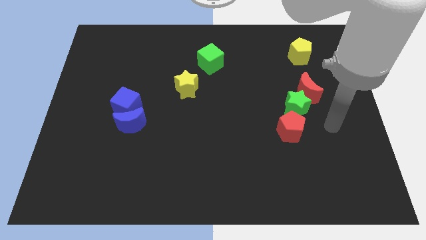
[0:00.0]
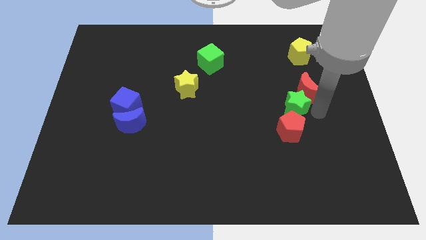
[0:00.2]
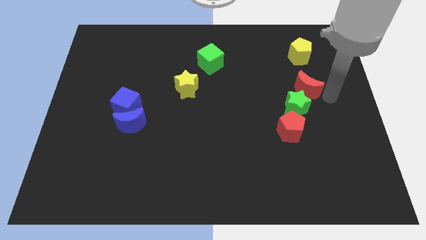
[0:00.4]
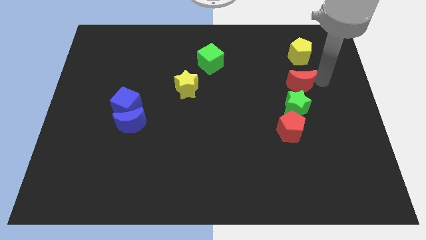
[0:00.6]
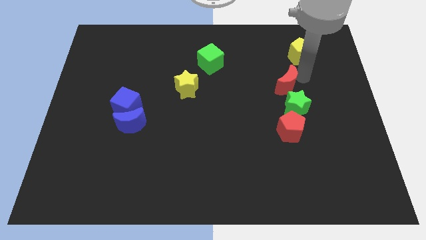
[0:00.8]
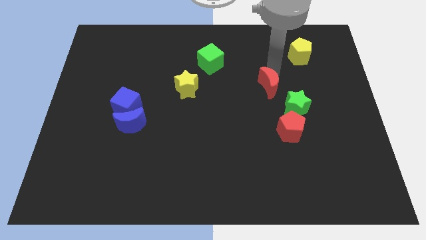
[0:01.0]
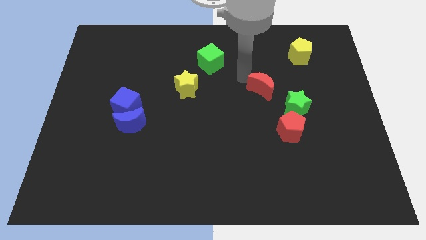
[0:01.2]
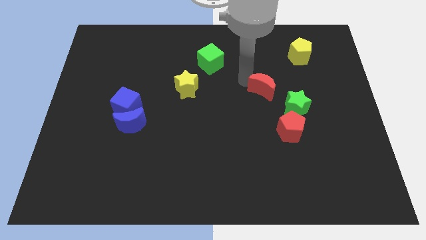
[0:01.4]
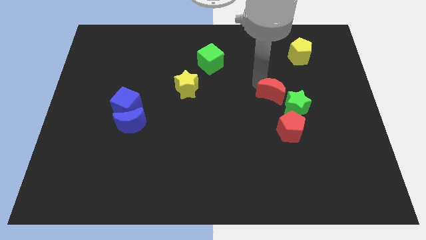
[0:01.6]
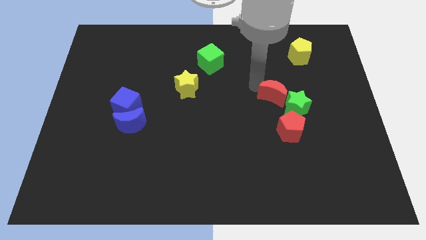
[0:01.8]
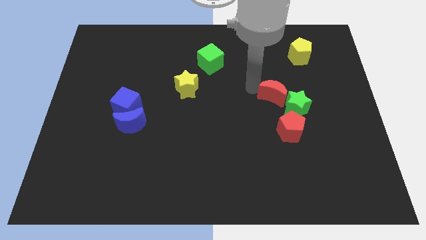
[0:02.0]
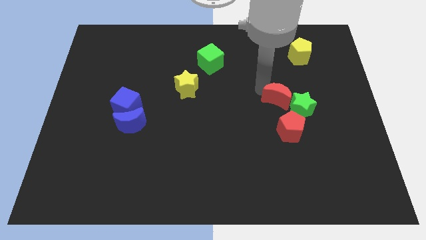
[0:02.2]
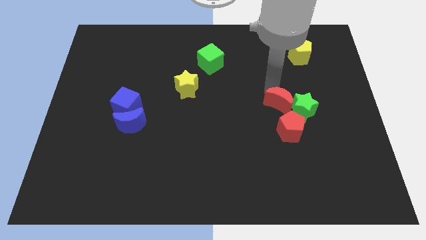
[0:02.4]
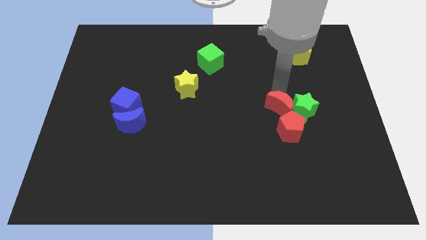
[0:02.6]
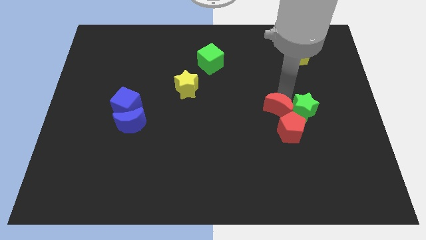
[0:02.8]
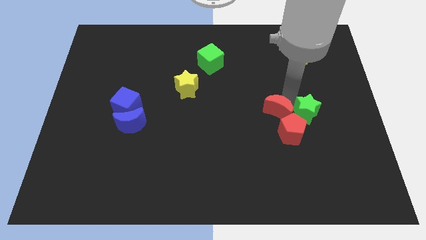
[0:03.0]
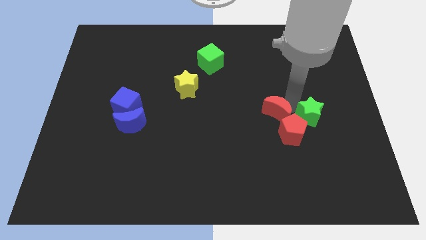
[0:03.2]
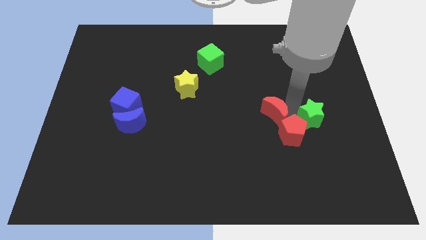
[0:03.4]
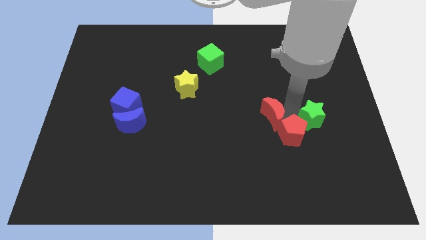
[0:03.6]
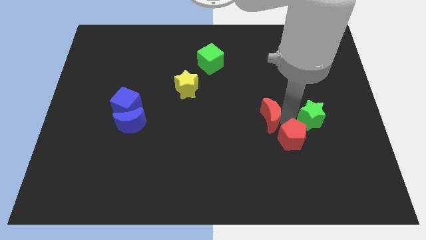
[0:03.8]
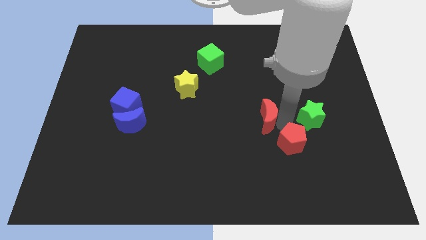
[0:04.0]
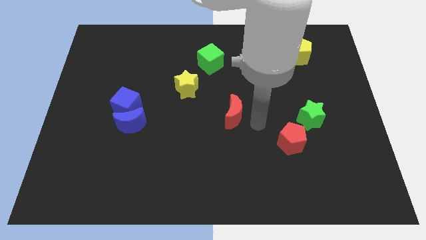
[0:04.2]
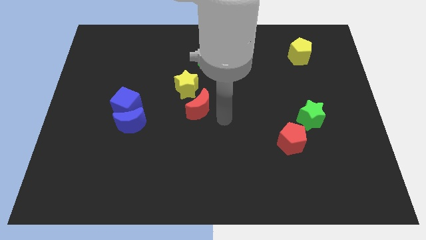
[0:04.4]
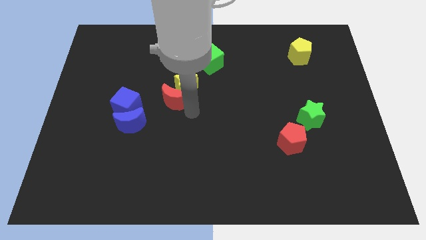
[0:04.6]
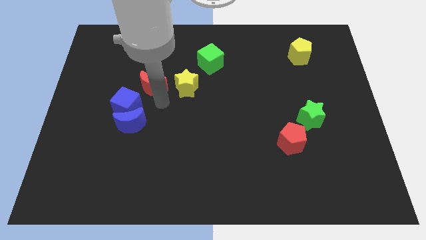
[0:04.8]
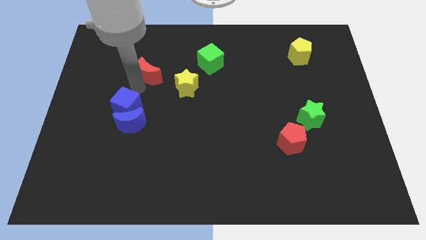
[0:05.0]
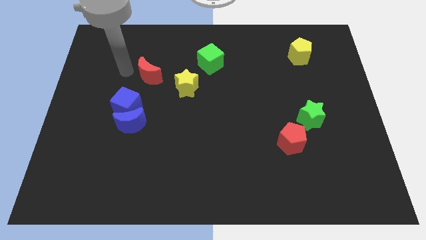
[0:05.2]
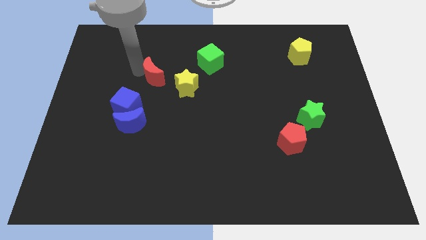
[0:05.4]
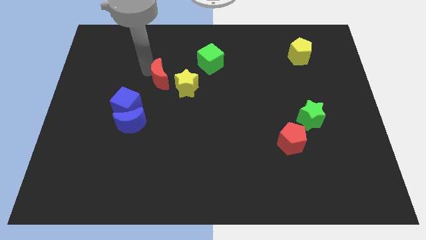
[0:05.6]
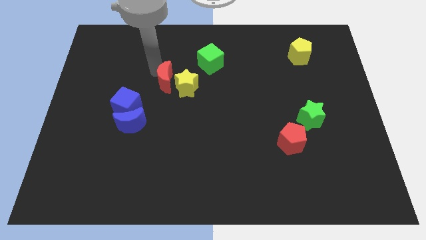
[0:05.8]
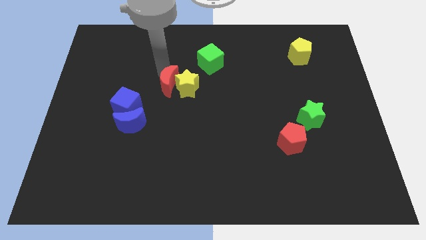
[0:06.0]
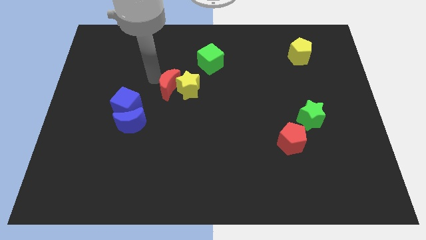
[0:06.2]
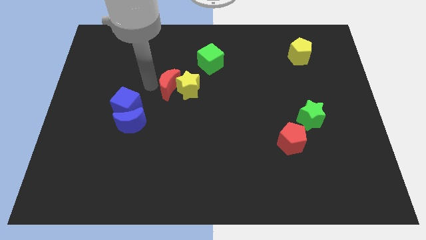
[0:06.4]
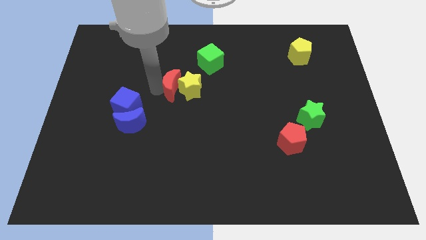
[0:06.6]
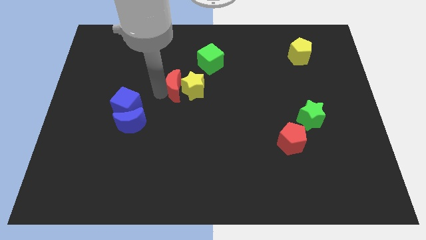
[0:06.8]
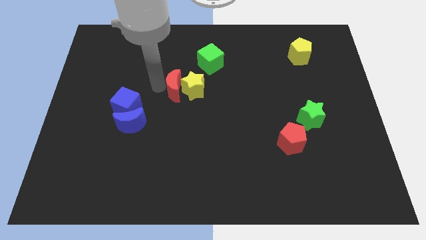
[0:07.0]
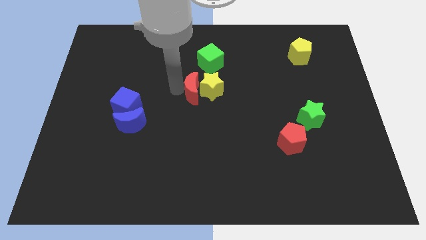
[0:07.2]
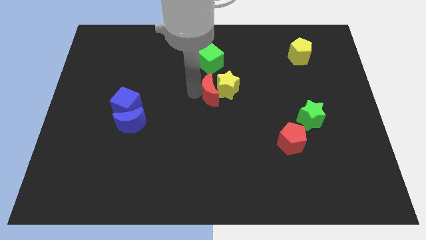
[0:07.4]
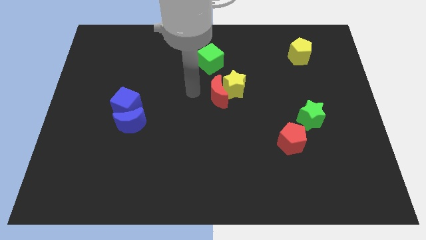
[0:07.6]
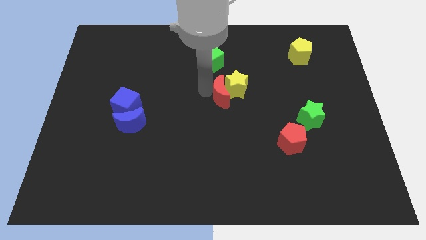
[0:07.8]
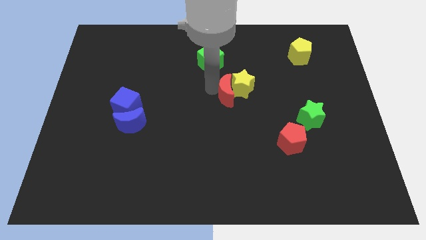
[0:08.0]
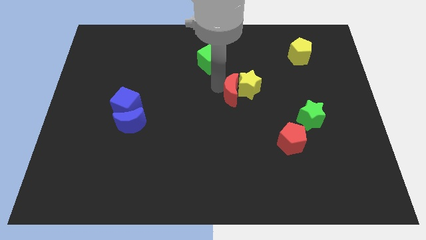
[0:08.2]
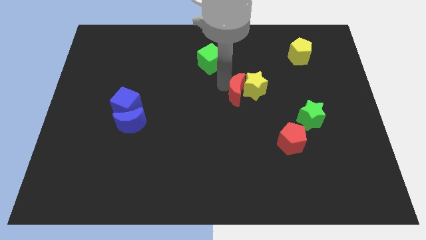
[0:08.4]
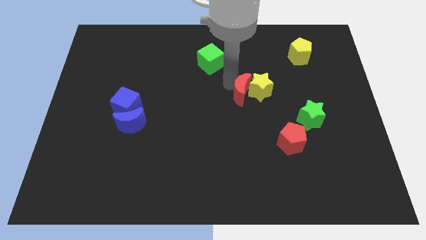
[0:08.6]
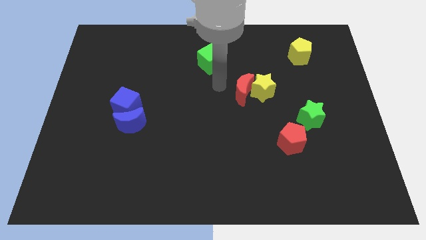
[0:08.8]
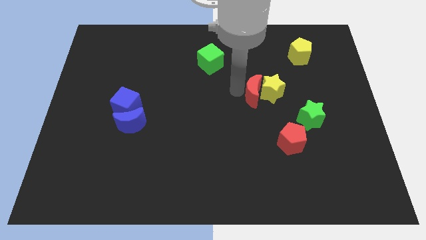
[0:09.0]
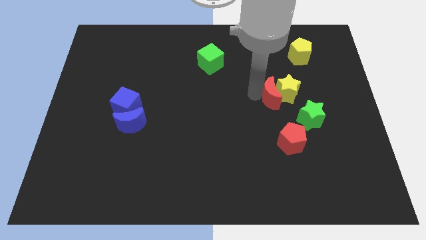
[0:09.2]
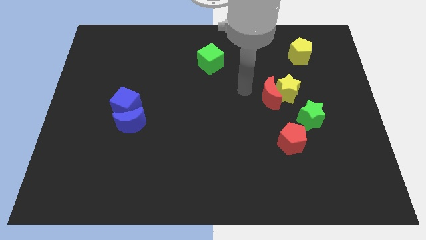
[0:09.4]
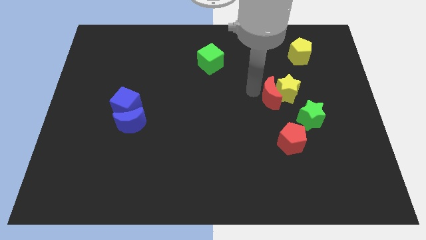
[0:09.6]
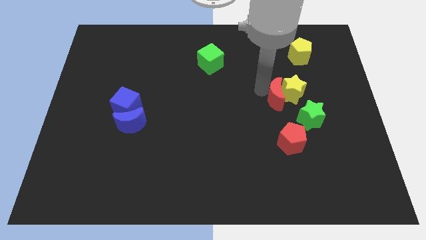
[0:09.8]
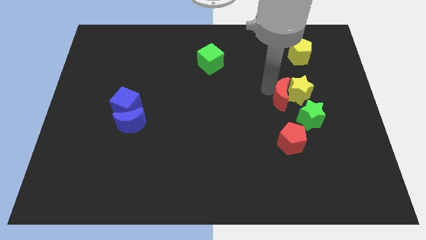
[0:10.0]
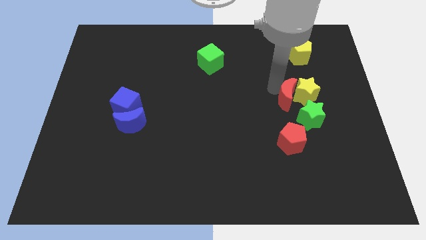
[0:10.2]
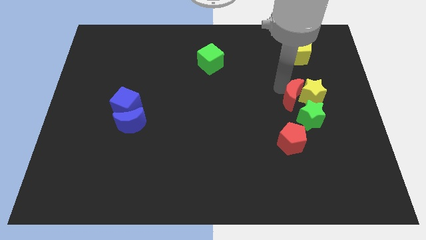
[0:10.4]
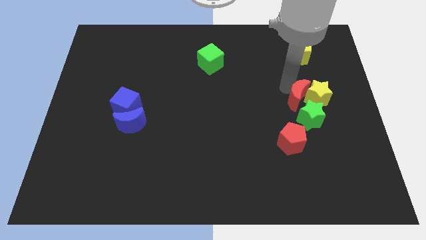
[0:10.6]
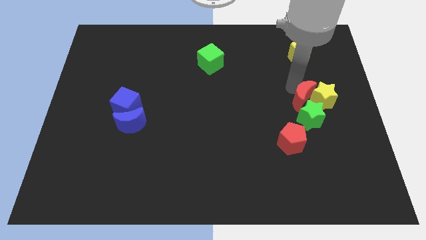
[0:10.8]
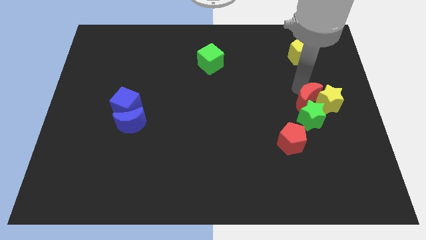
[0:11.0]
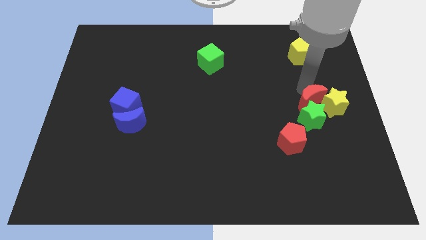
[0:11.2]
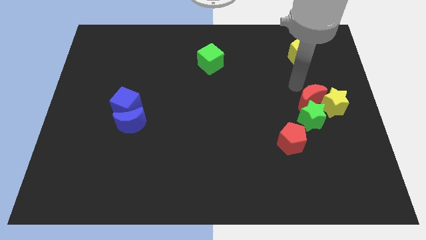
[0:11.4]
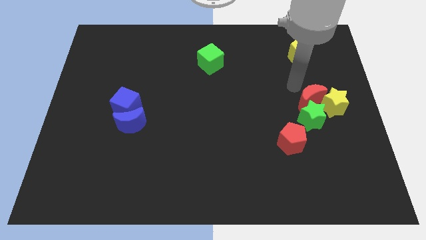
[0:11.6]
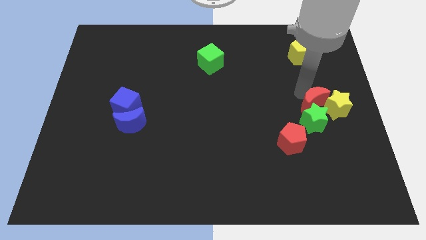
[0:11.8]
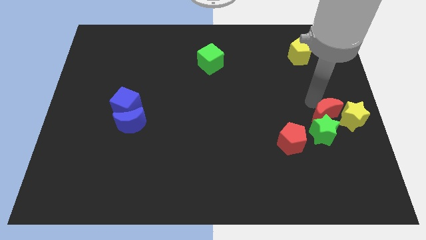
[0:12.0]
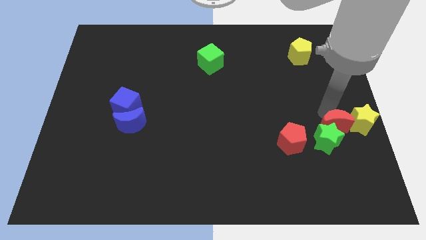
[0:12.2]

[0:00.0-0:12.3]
put the red moon right of the red pentagon

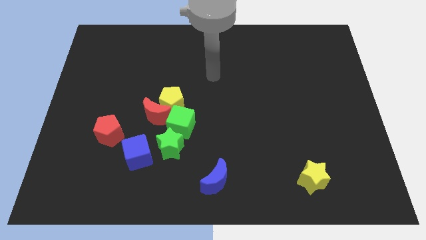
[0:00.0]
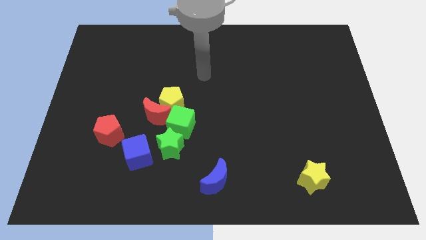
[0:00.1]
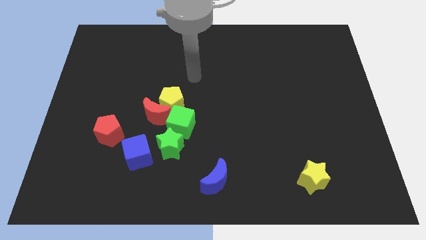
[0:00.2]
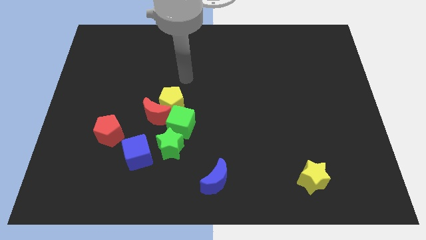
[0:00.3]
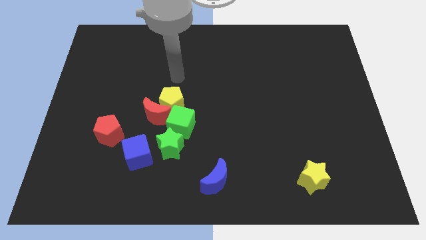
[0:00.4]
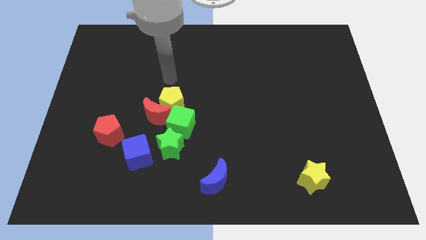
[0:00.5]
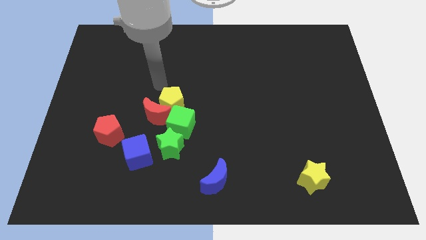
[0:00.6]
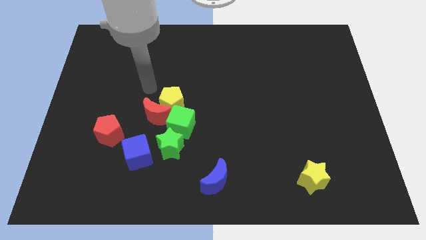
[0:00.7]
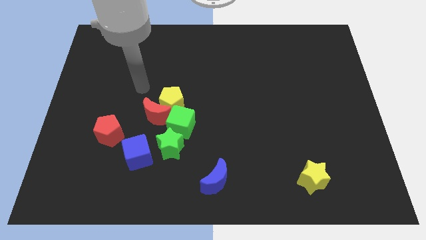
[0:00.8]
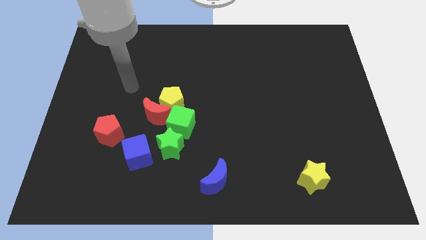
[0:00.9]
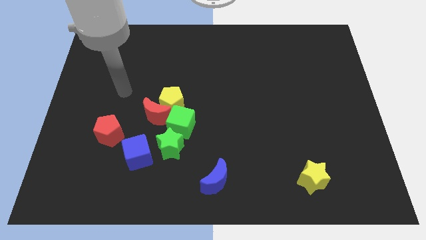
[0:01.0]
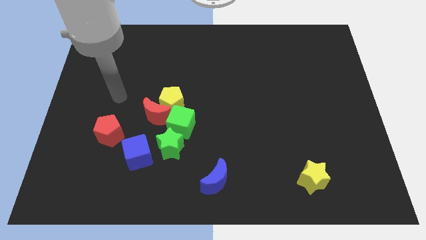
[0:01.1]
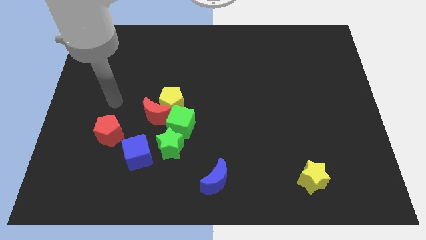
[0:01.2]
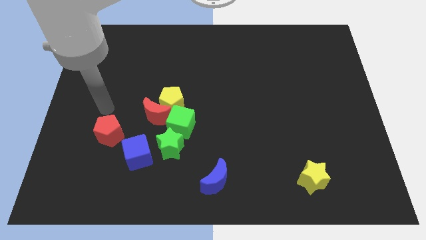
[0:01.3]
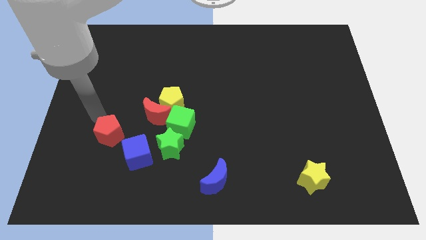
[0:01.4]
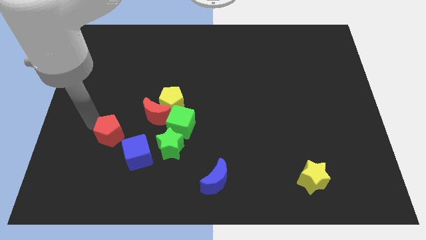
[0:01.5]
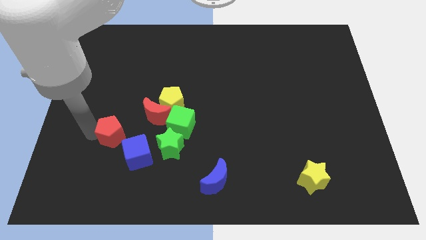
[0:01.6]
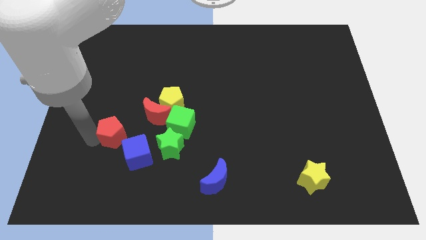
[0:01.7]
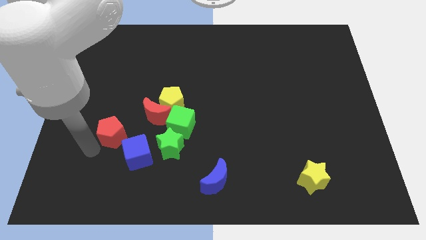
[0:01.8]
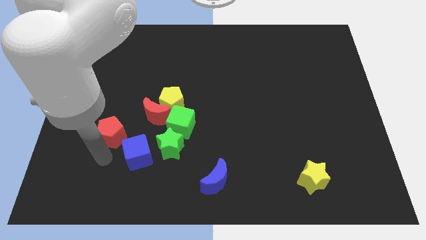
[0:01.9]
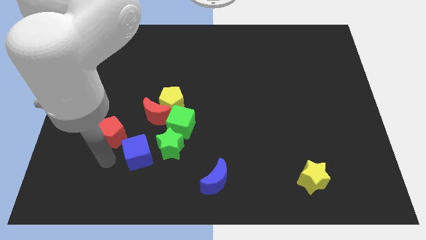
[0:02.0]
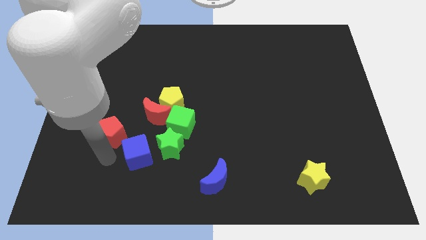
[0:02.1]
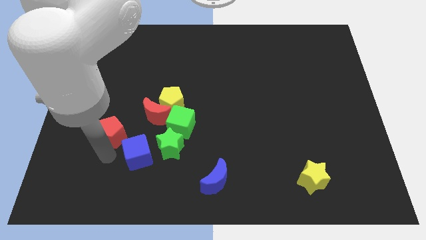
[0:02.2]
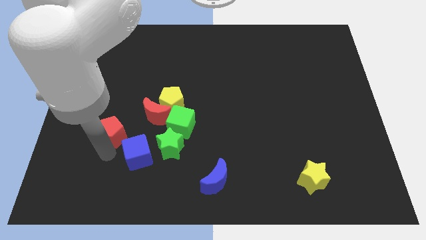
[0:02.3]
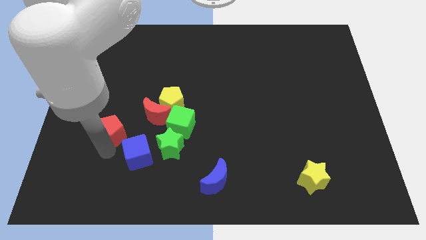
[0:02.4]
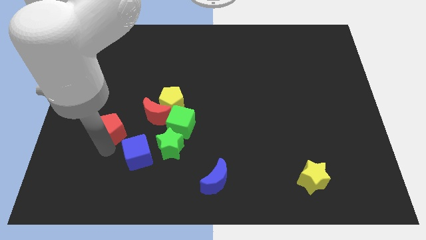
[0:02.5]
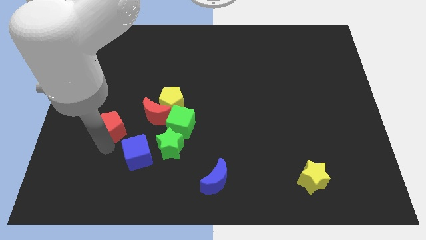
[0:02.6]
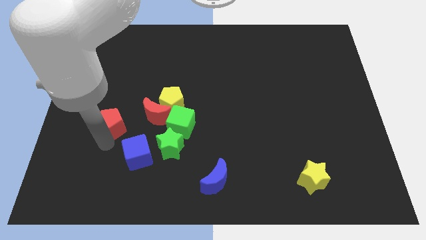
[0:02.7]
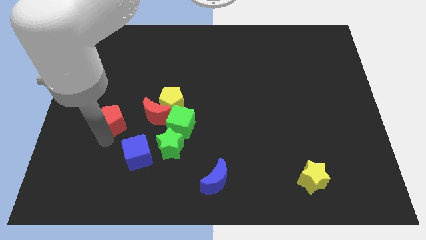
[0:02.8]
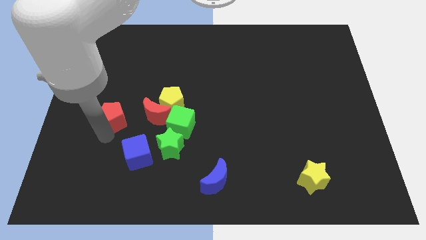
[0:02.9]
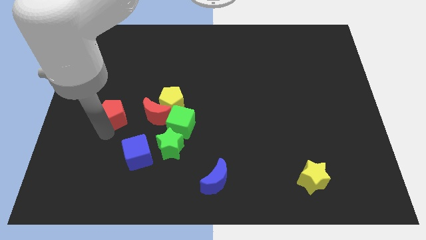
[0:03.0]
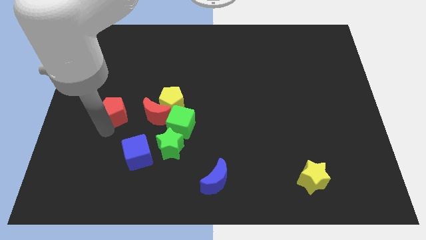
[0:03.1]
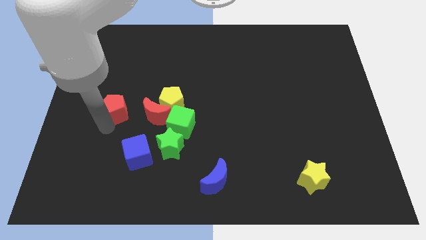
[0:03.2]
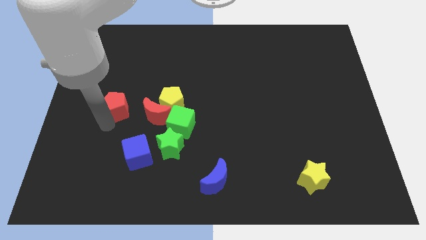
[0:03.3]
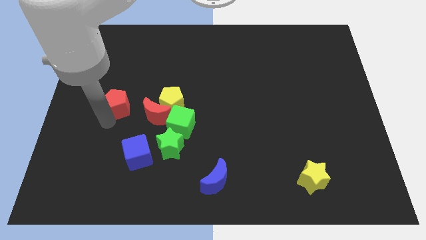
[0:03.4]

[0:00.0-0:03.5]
put the red pentagon diagonally up and to the left of the red moon
